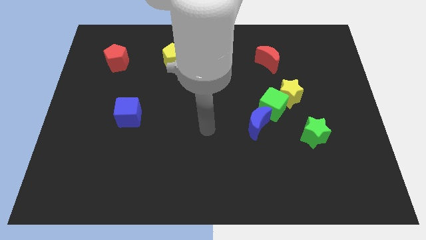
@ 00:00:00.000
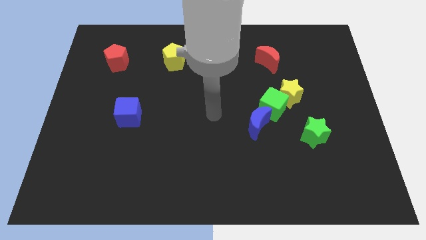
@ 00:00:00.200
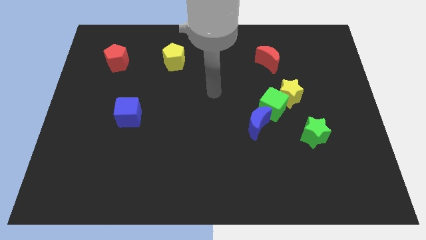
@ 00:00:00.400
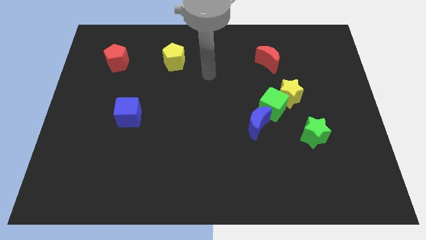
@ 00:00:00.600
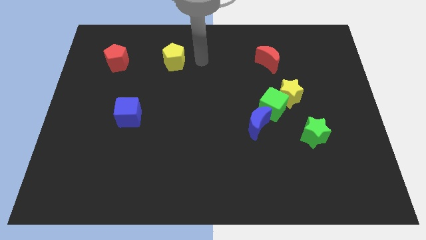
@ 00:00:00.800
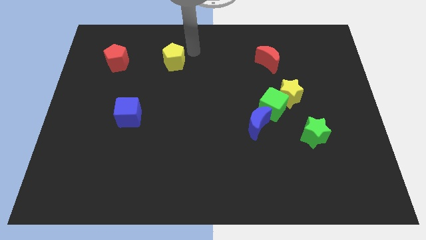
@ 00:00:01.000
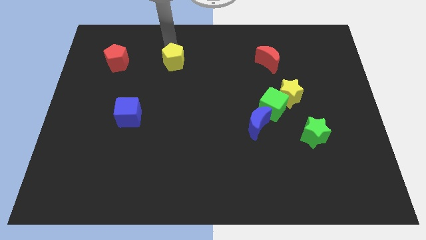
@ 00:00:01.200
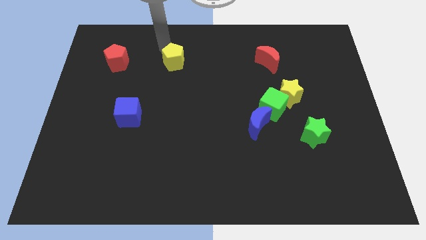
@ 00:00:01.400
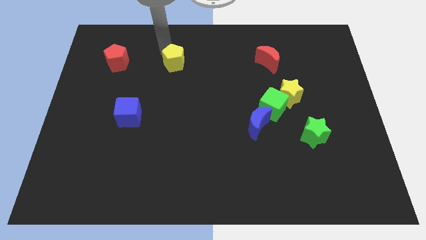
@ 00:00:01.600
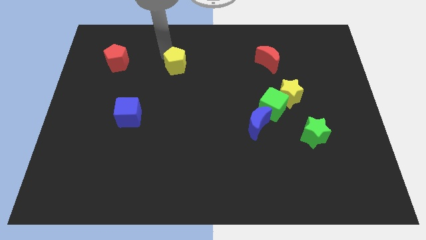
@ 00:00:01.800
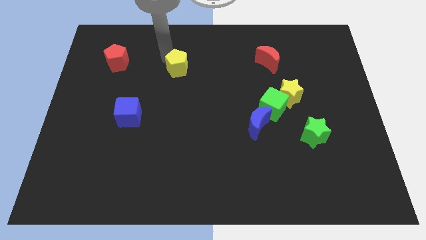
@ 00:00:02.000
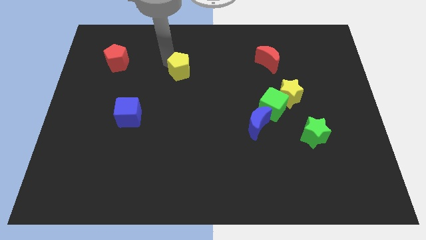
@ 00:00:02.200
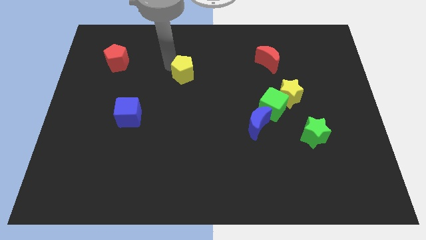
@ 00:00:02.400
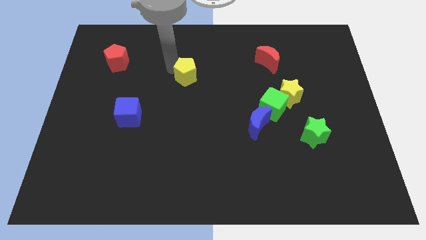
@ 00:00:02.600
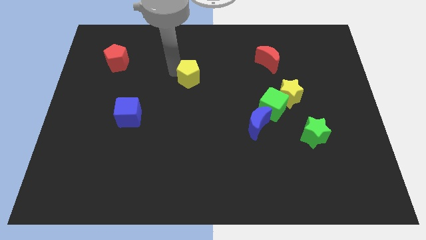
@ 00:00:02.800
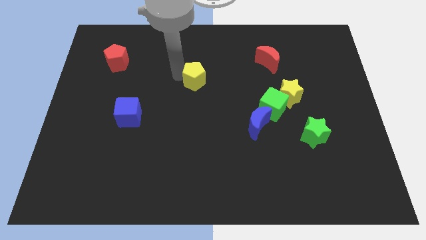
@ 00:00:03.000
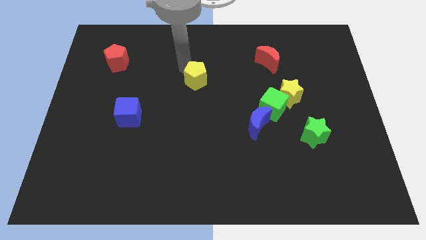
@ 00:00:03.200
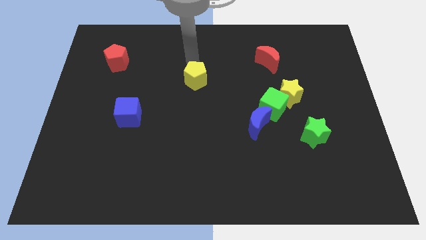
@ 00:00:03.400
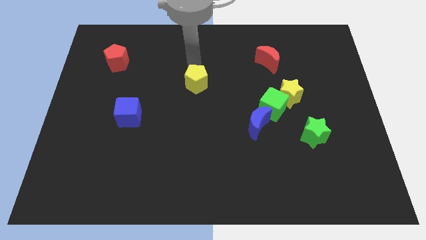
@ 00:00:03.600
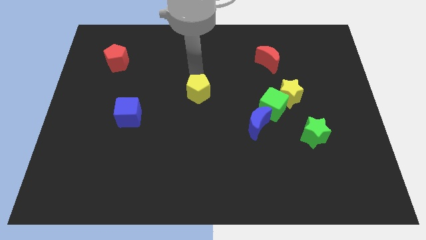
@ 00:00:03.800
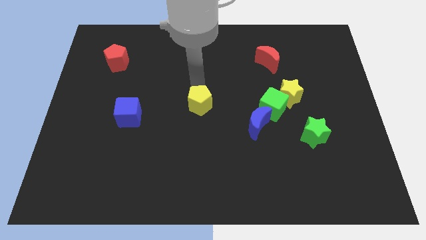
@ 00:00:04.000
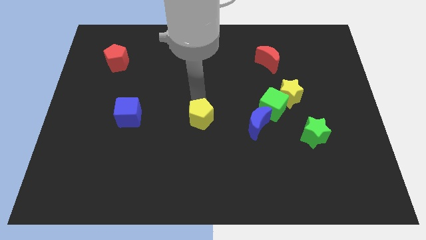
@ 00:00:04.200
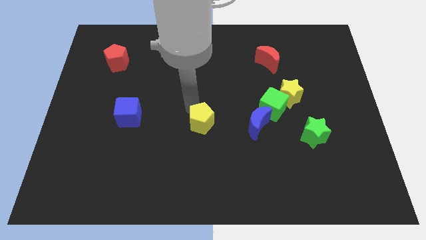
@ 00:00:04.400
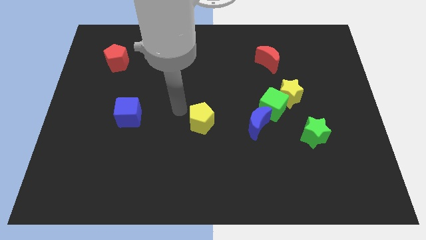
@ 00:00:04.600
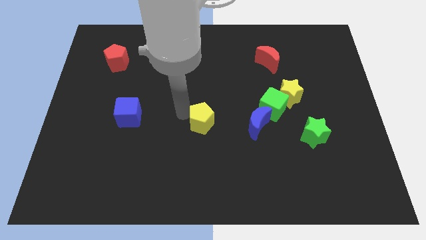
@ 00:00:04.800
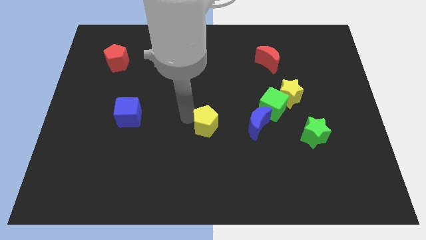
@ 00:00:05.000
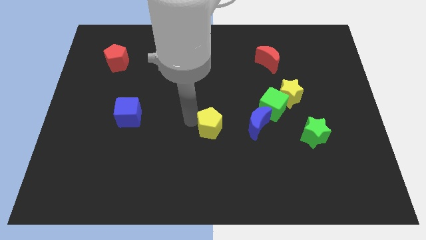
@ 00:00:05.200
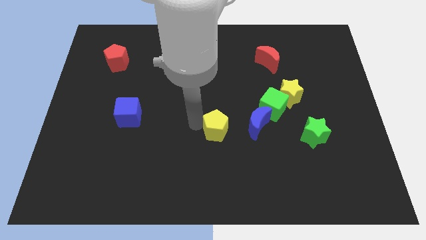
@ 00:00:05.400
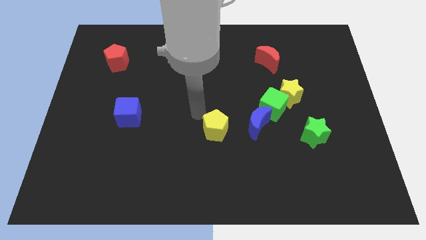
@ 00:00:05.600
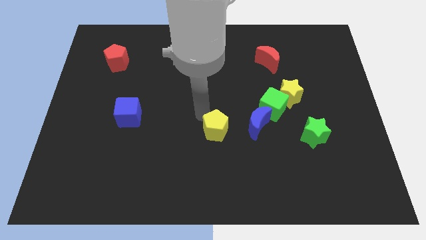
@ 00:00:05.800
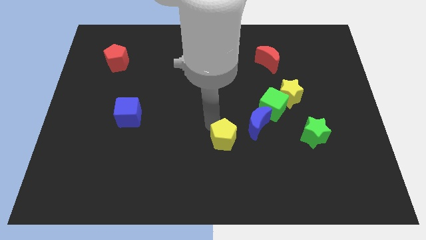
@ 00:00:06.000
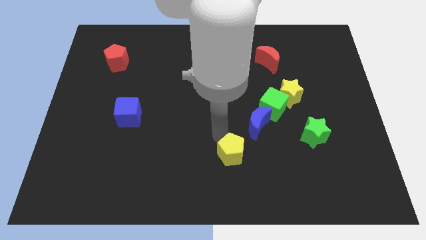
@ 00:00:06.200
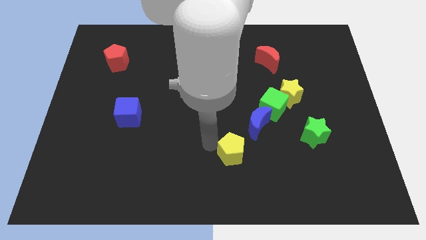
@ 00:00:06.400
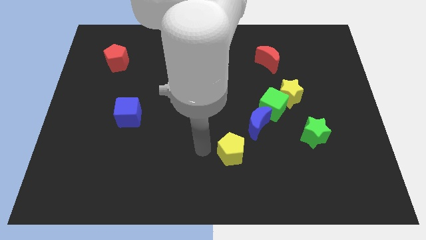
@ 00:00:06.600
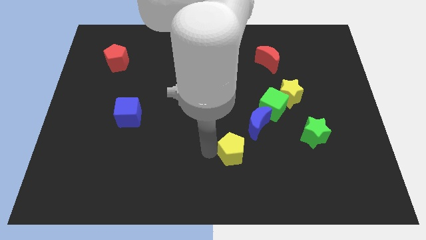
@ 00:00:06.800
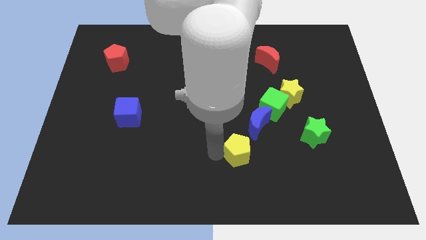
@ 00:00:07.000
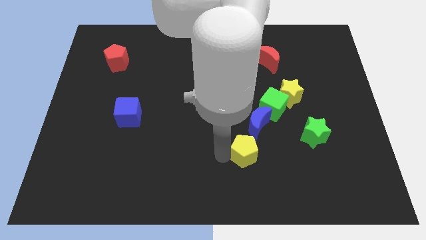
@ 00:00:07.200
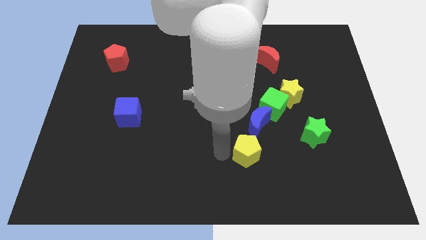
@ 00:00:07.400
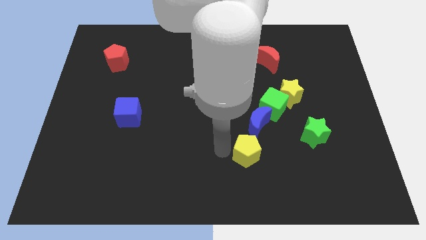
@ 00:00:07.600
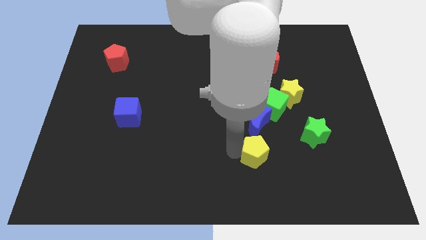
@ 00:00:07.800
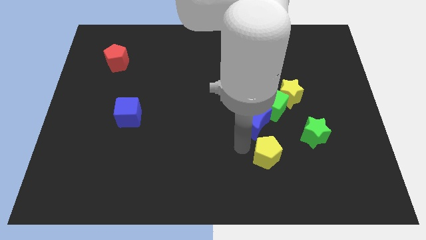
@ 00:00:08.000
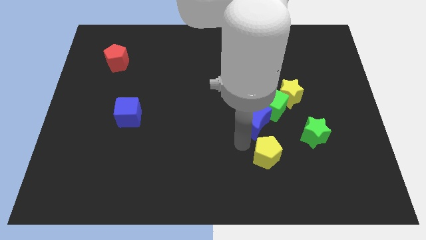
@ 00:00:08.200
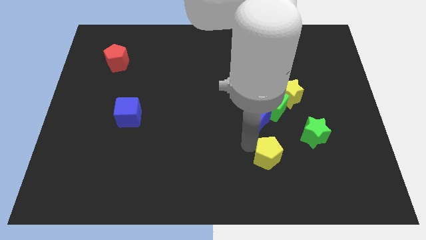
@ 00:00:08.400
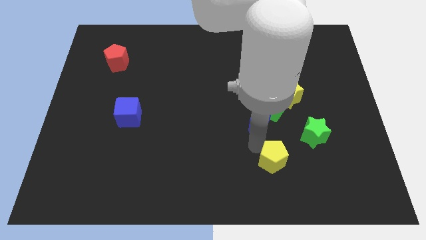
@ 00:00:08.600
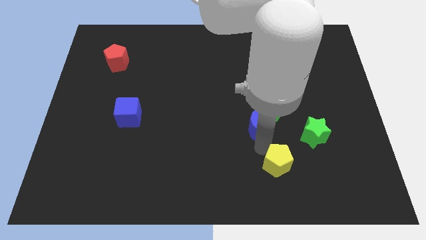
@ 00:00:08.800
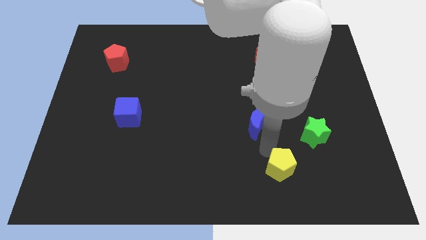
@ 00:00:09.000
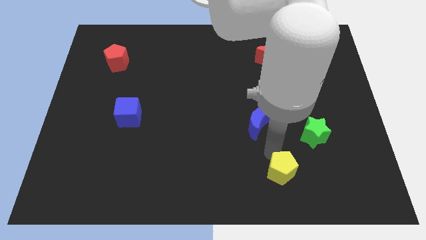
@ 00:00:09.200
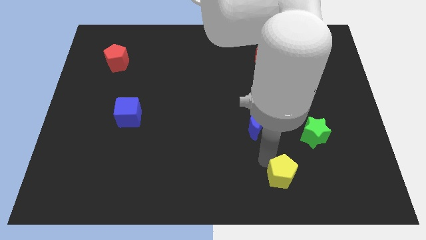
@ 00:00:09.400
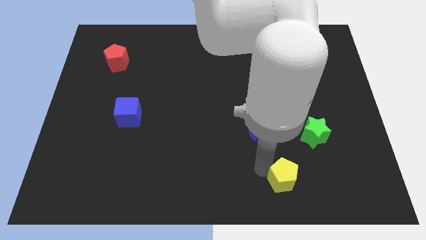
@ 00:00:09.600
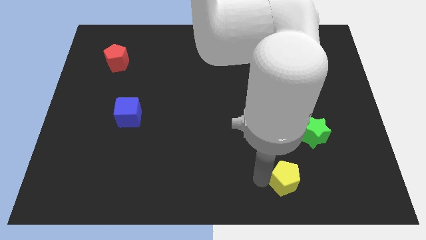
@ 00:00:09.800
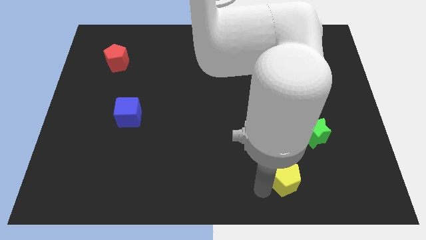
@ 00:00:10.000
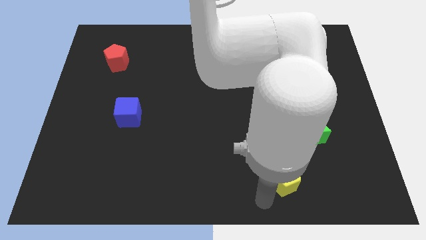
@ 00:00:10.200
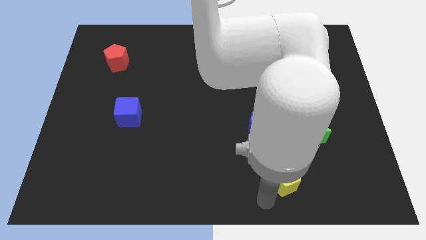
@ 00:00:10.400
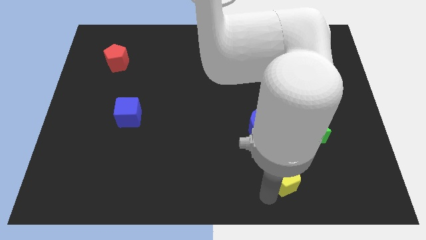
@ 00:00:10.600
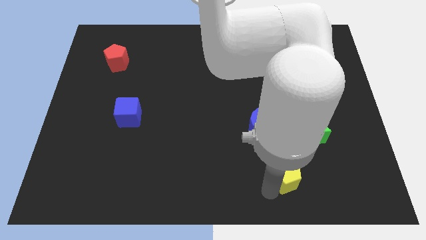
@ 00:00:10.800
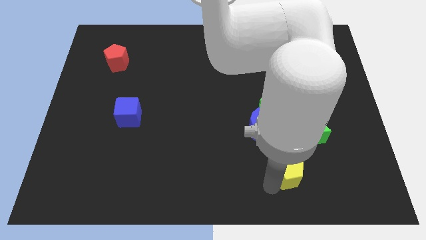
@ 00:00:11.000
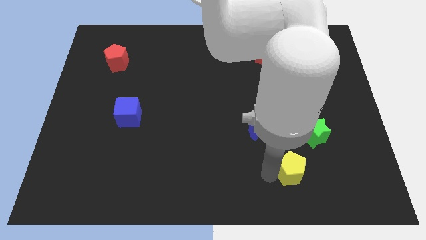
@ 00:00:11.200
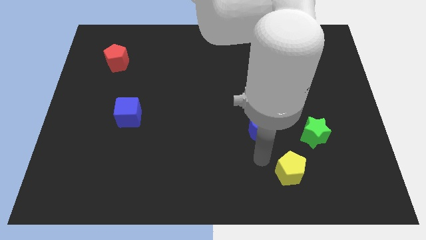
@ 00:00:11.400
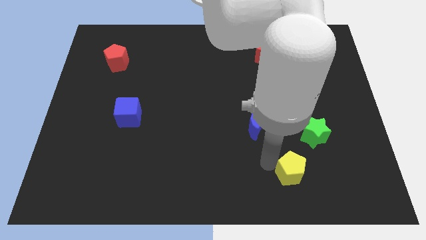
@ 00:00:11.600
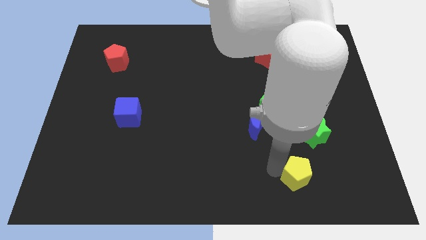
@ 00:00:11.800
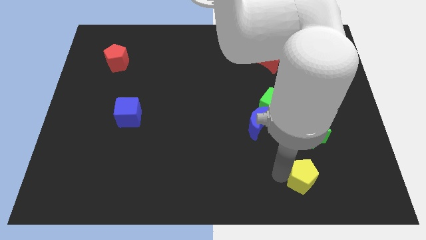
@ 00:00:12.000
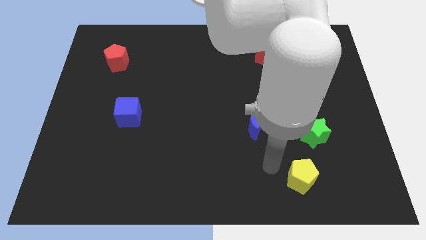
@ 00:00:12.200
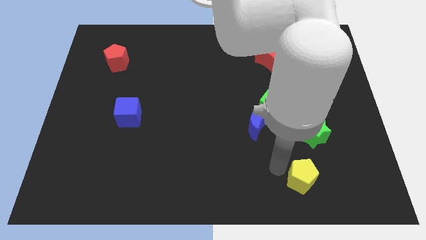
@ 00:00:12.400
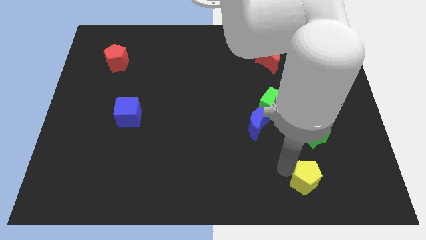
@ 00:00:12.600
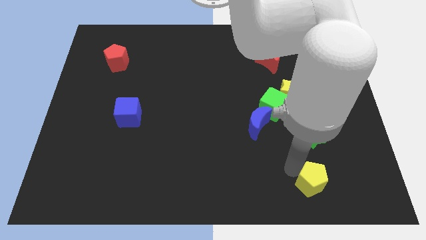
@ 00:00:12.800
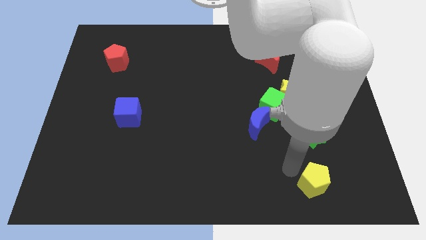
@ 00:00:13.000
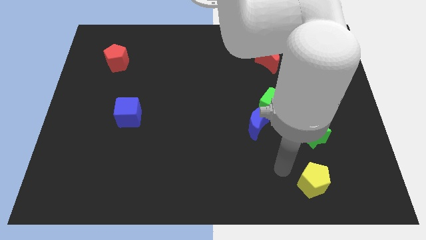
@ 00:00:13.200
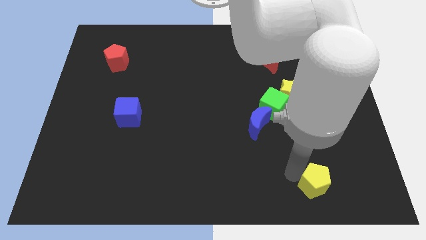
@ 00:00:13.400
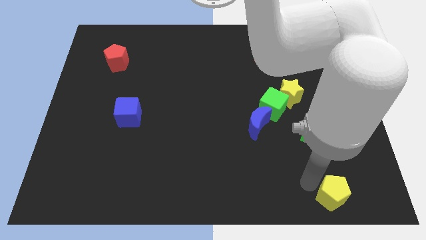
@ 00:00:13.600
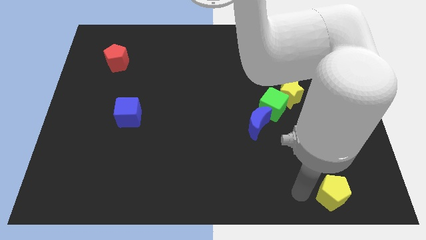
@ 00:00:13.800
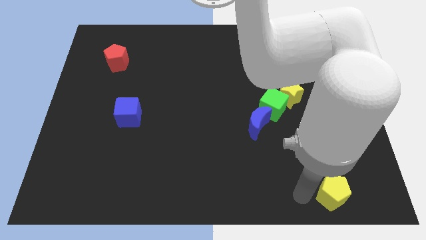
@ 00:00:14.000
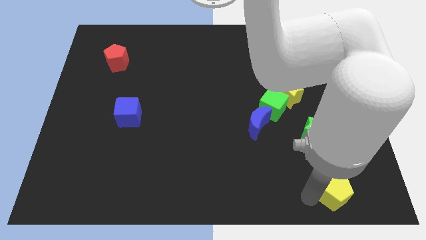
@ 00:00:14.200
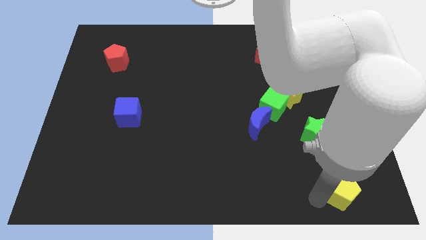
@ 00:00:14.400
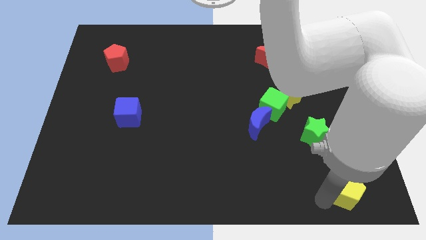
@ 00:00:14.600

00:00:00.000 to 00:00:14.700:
slide the yellow pentagon to the bottom right

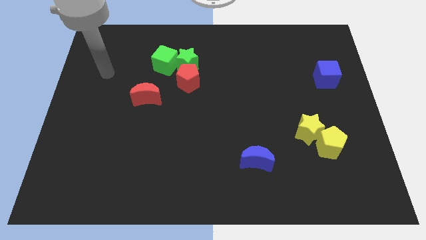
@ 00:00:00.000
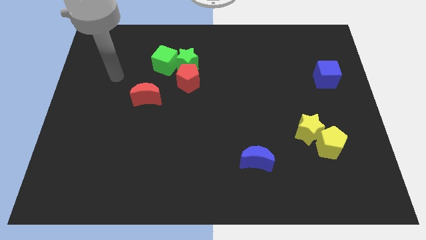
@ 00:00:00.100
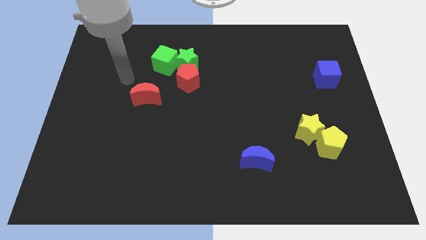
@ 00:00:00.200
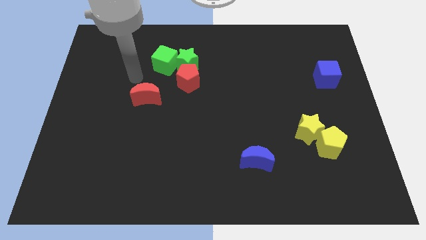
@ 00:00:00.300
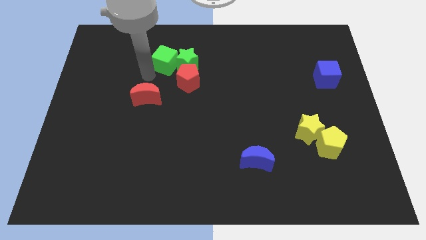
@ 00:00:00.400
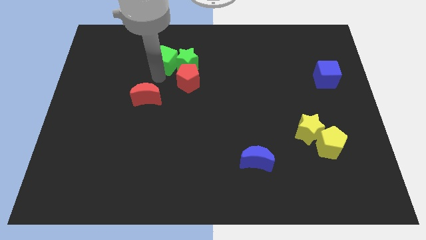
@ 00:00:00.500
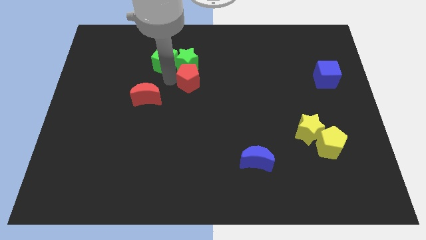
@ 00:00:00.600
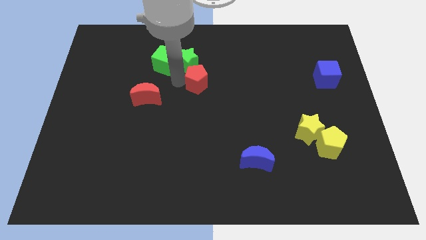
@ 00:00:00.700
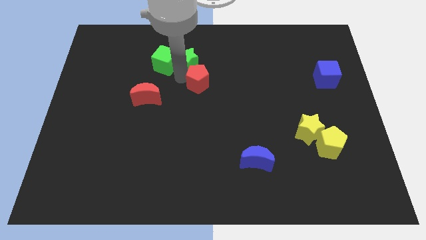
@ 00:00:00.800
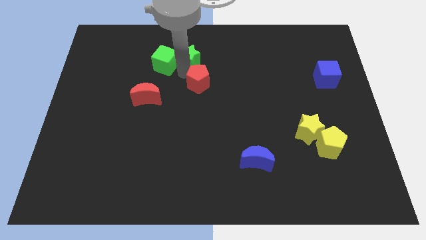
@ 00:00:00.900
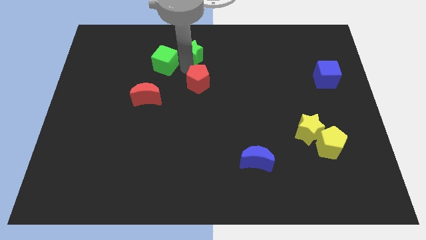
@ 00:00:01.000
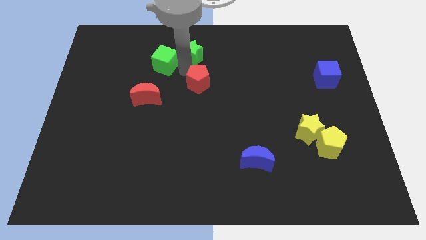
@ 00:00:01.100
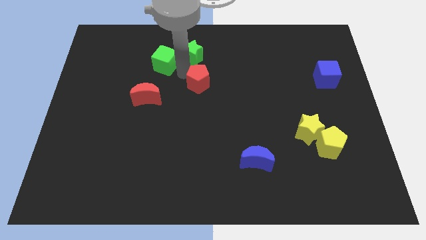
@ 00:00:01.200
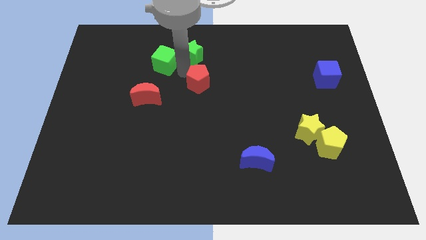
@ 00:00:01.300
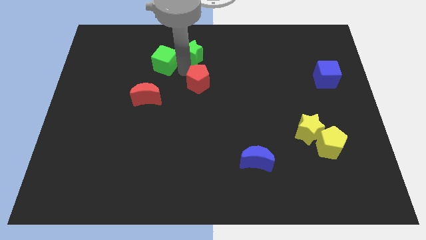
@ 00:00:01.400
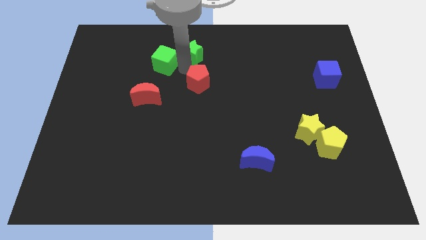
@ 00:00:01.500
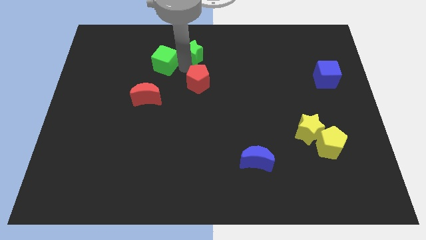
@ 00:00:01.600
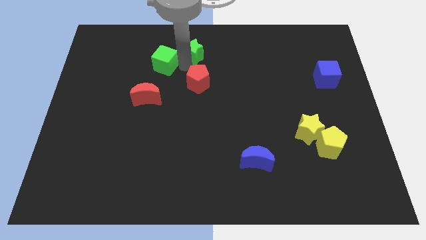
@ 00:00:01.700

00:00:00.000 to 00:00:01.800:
move the green star to the towards your base
